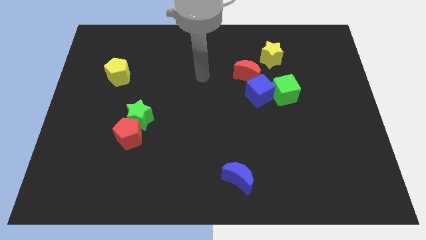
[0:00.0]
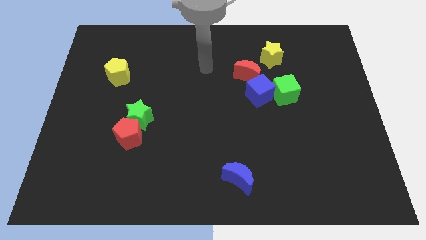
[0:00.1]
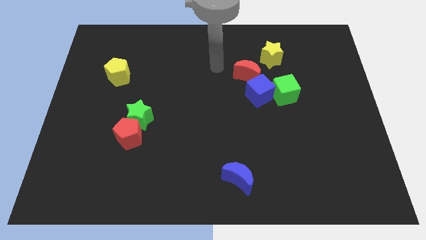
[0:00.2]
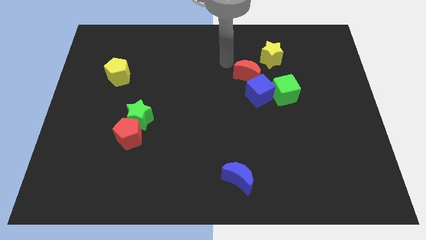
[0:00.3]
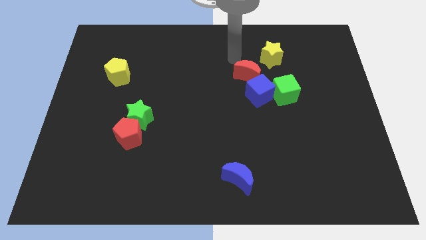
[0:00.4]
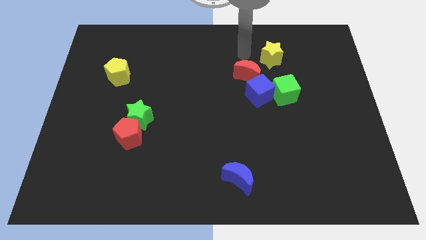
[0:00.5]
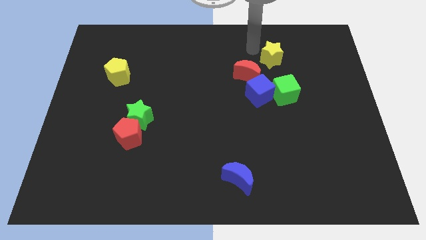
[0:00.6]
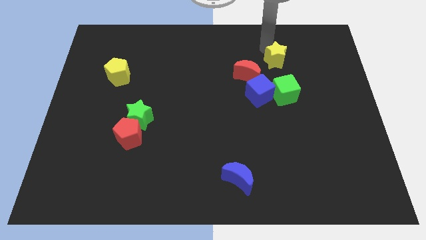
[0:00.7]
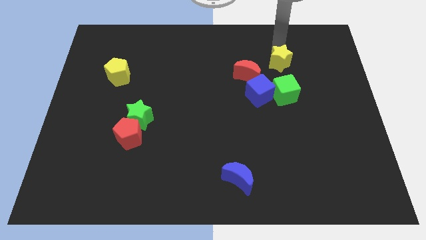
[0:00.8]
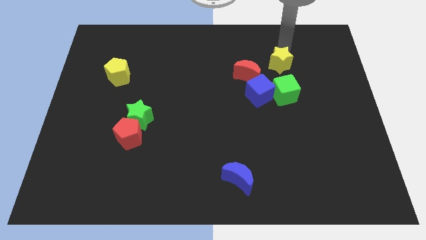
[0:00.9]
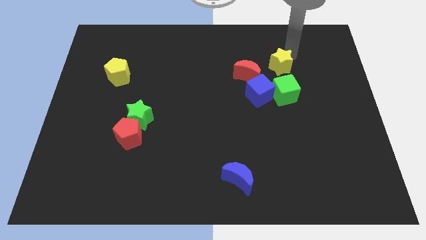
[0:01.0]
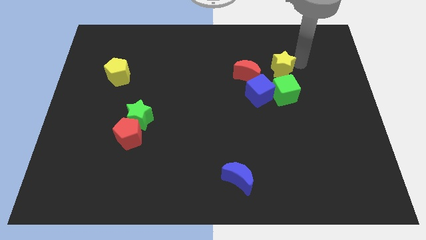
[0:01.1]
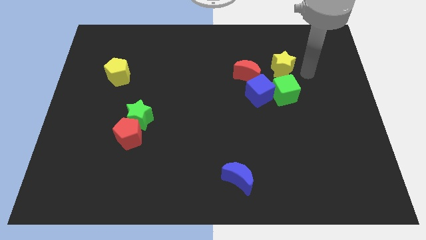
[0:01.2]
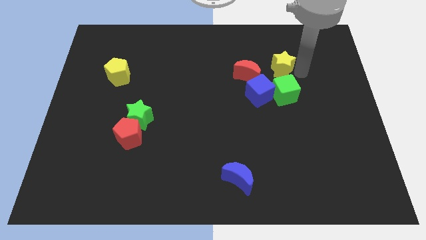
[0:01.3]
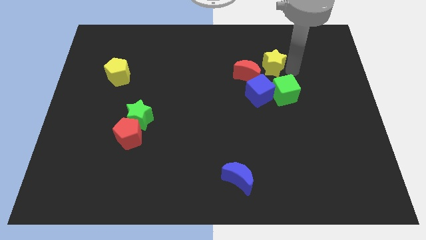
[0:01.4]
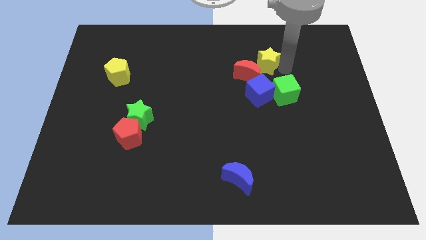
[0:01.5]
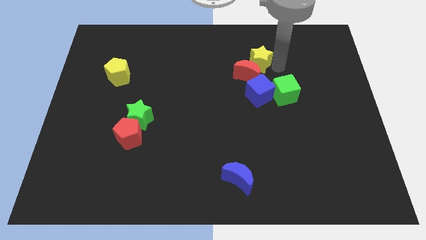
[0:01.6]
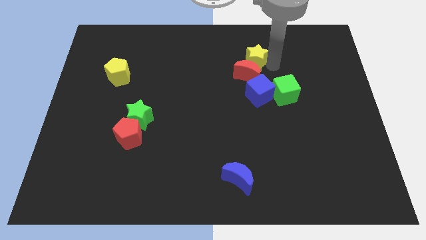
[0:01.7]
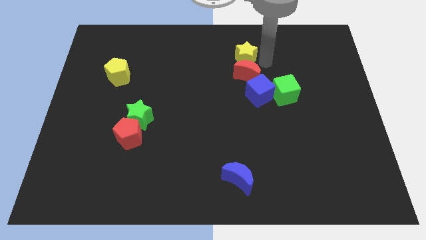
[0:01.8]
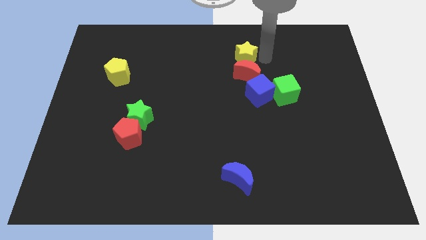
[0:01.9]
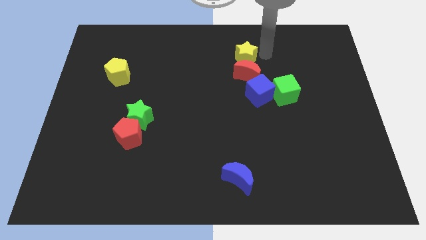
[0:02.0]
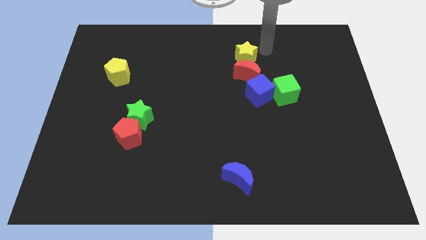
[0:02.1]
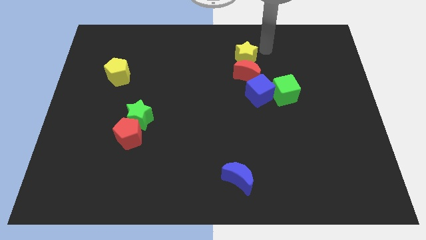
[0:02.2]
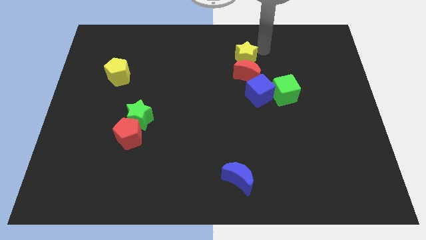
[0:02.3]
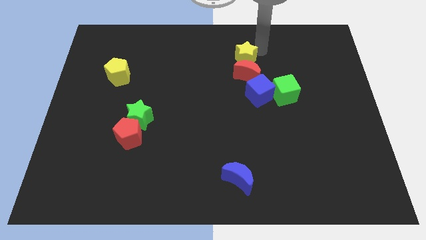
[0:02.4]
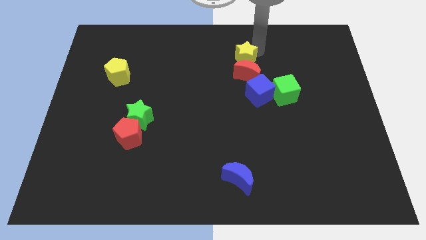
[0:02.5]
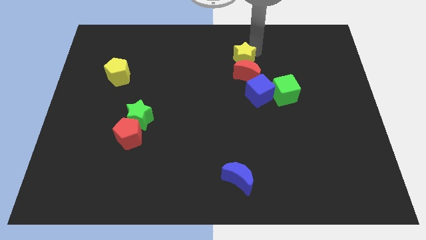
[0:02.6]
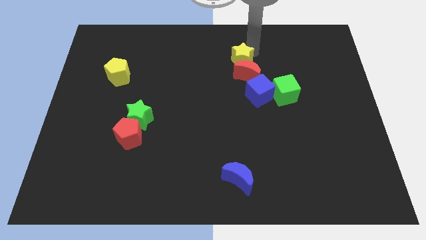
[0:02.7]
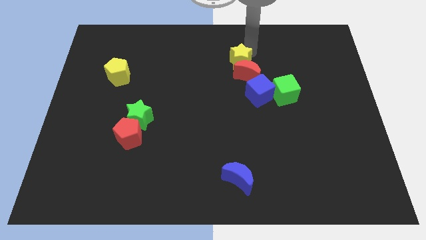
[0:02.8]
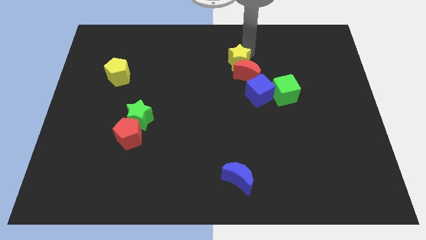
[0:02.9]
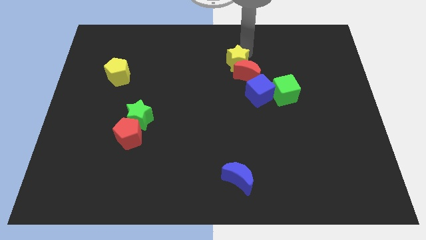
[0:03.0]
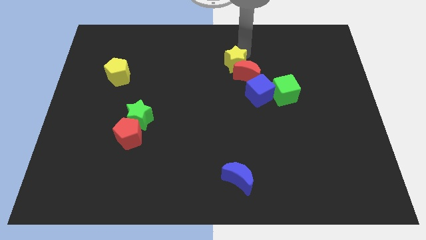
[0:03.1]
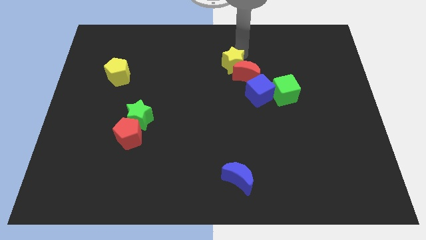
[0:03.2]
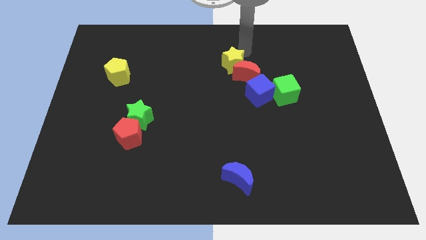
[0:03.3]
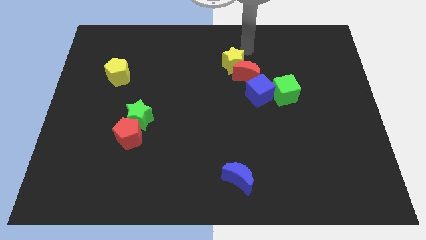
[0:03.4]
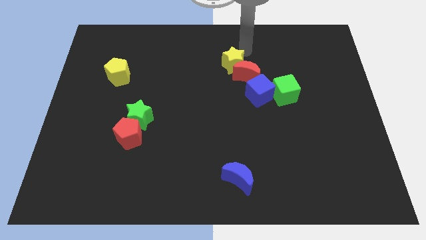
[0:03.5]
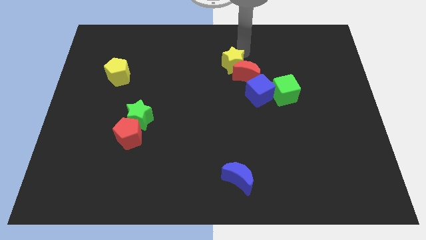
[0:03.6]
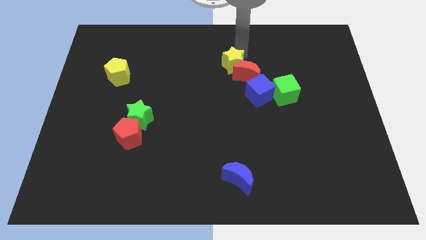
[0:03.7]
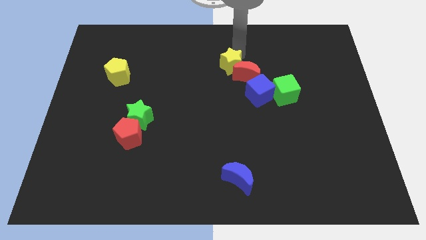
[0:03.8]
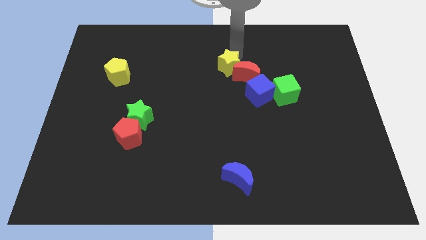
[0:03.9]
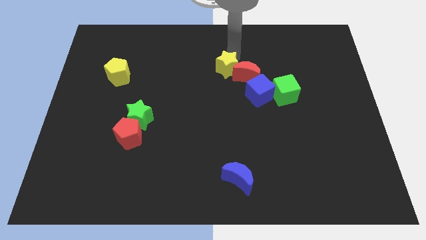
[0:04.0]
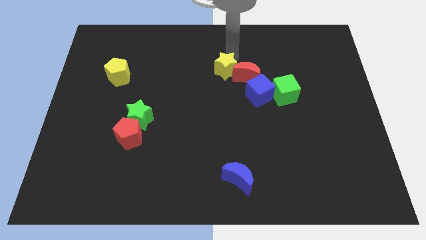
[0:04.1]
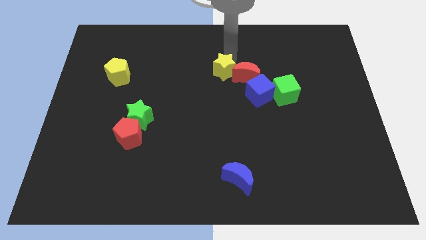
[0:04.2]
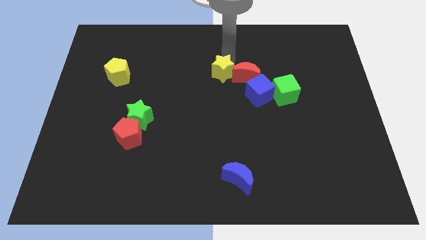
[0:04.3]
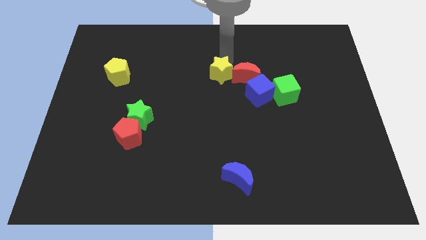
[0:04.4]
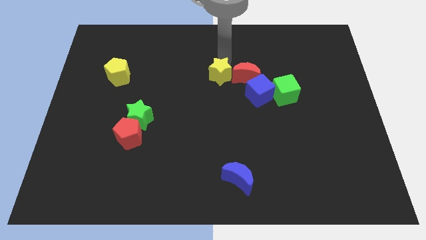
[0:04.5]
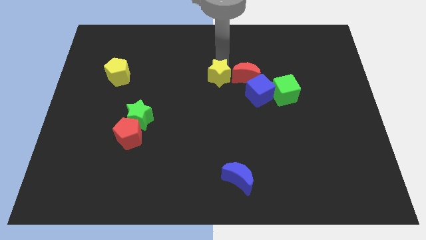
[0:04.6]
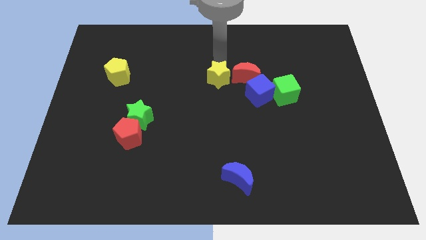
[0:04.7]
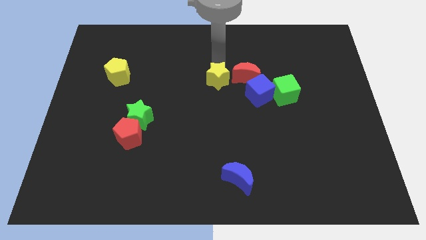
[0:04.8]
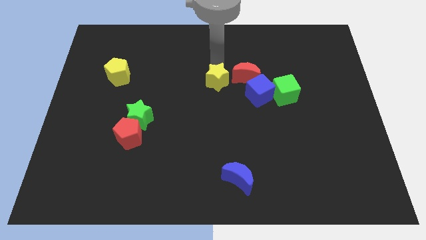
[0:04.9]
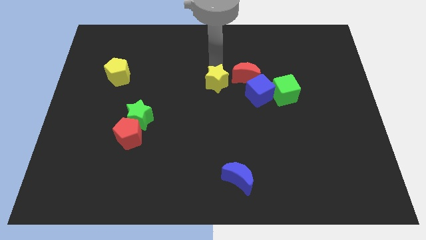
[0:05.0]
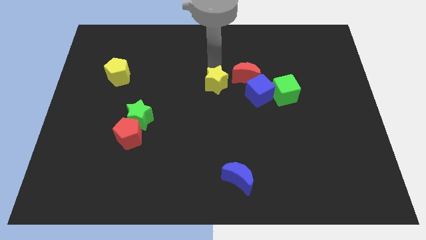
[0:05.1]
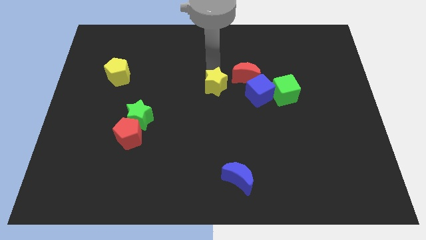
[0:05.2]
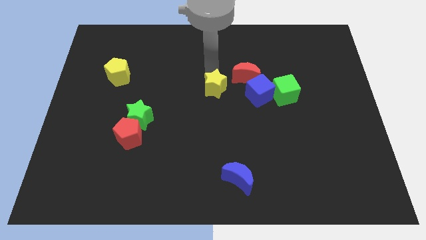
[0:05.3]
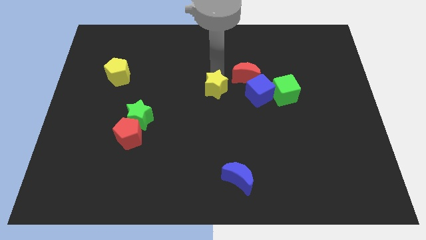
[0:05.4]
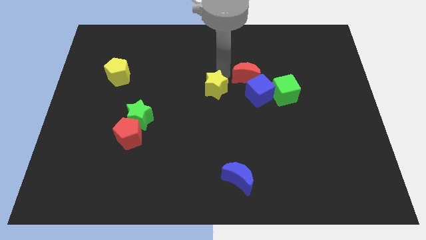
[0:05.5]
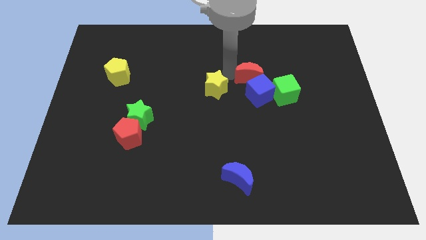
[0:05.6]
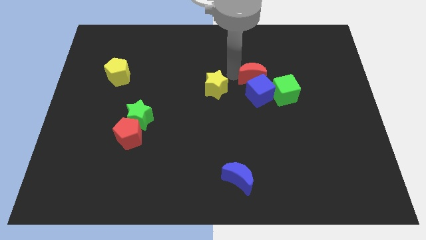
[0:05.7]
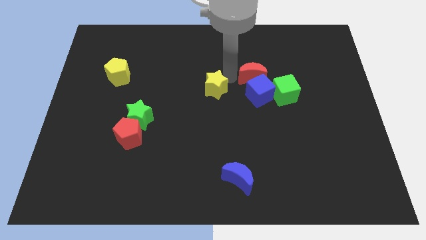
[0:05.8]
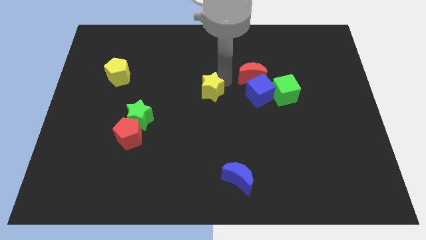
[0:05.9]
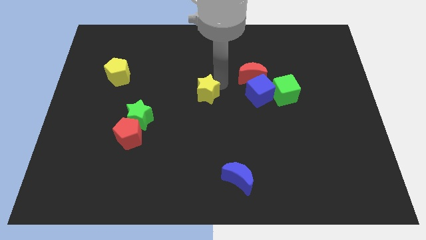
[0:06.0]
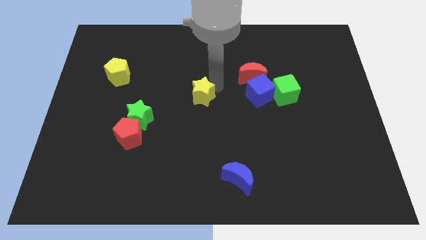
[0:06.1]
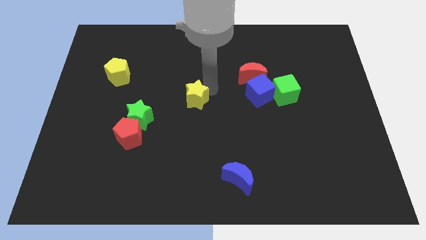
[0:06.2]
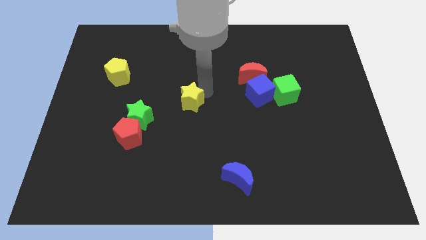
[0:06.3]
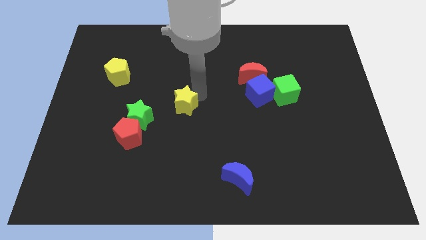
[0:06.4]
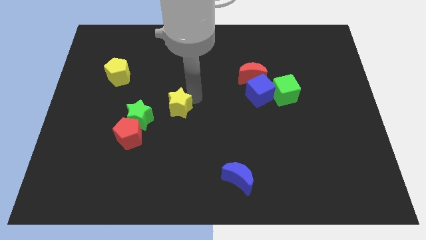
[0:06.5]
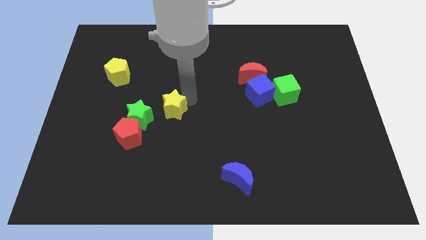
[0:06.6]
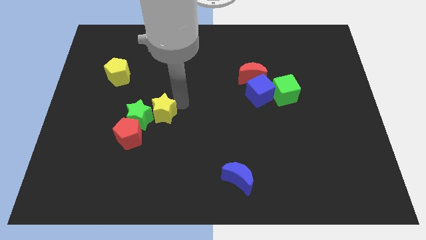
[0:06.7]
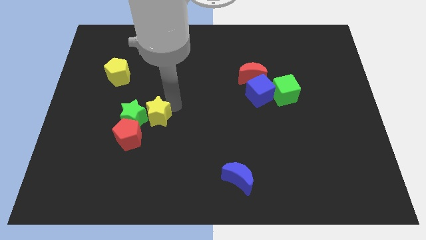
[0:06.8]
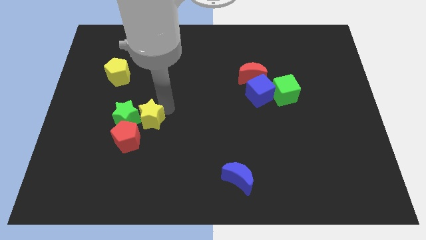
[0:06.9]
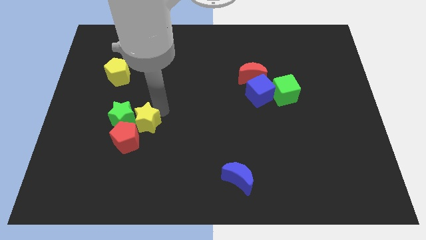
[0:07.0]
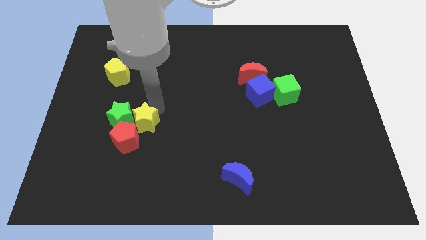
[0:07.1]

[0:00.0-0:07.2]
slide the yellow star next to the red pentagon
